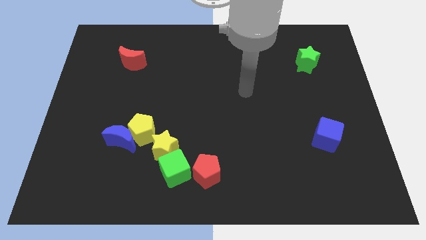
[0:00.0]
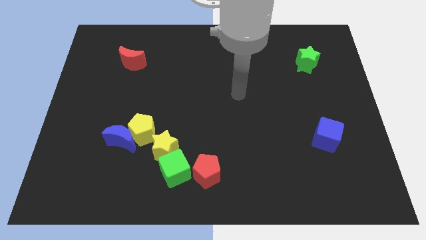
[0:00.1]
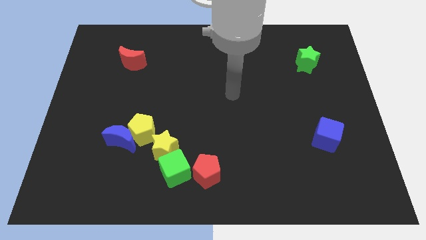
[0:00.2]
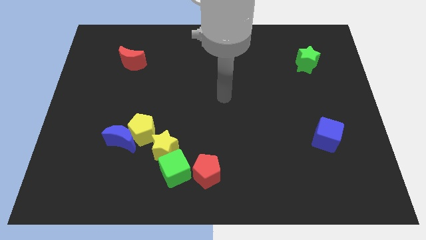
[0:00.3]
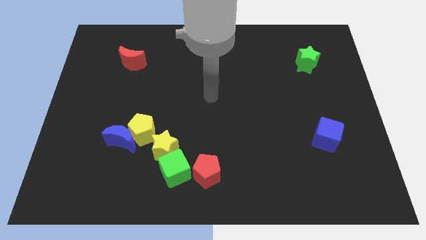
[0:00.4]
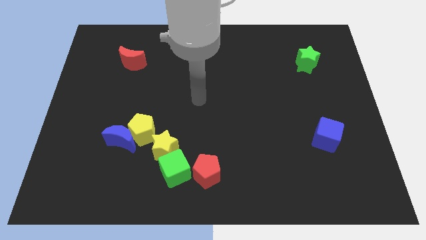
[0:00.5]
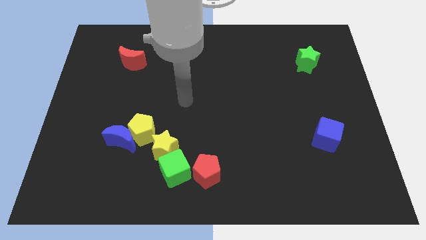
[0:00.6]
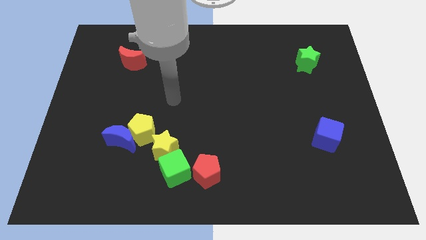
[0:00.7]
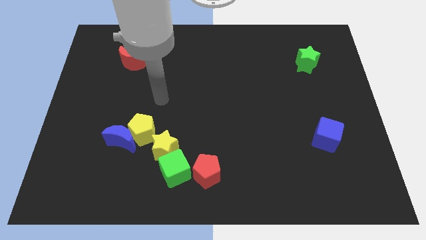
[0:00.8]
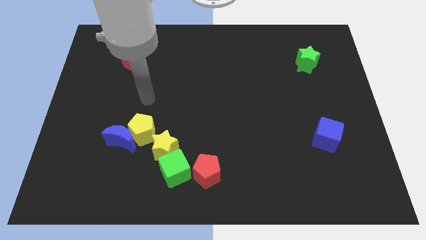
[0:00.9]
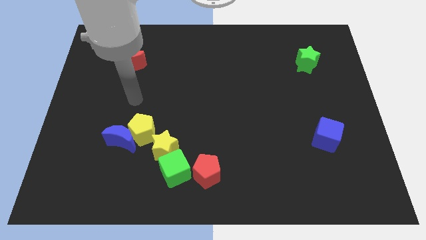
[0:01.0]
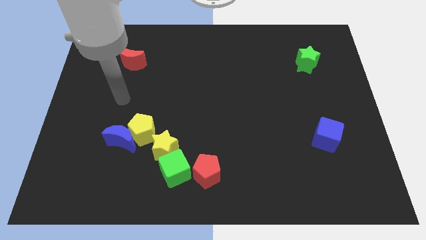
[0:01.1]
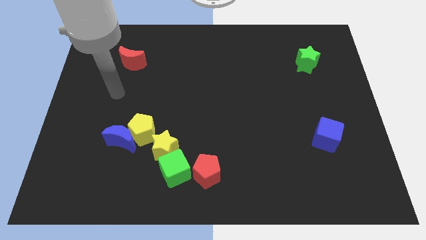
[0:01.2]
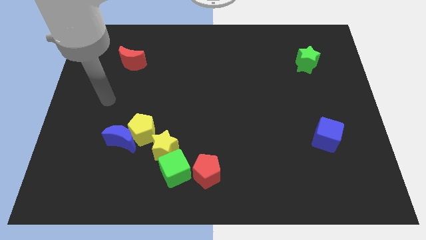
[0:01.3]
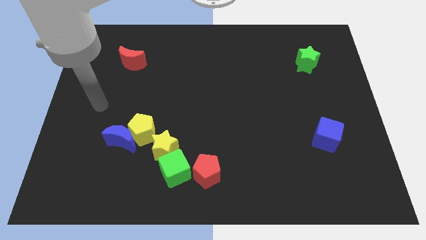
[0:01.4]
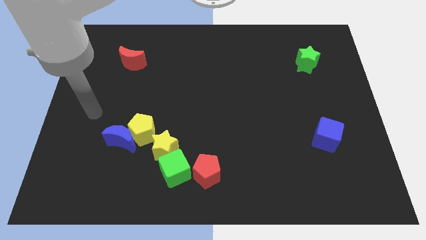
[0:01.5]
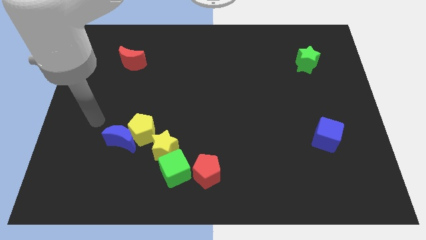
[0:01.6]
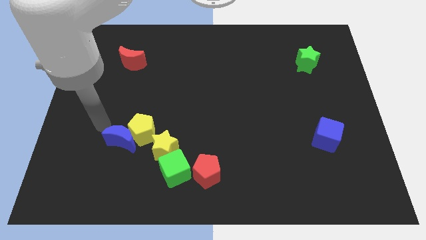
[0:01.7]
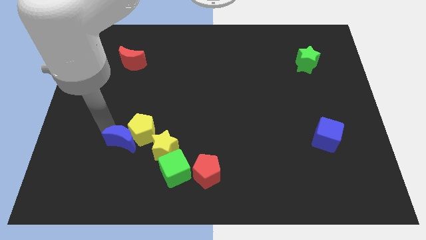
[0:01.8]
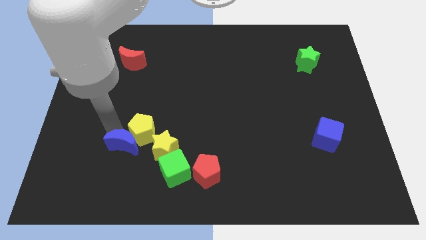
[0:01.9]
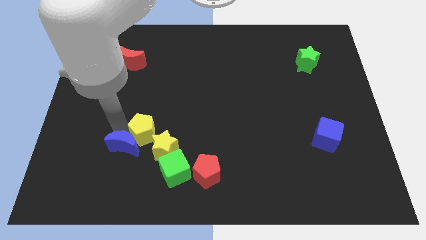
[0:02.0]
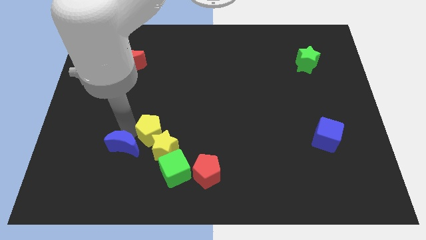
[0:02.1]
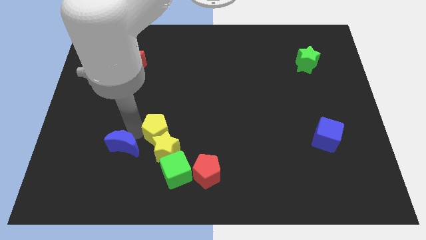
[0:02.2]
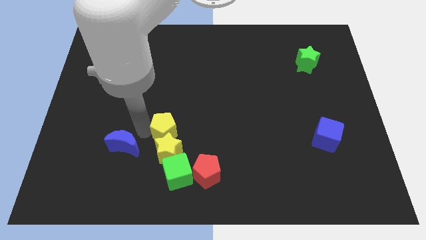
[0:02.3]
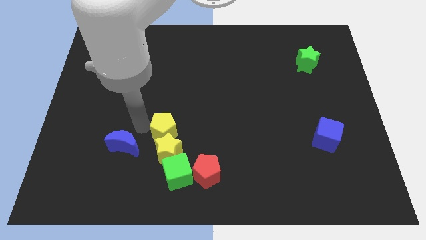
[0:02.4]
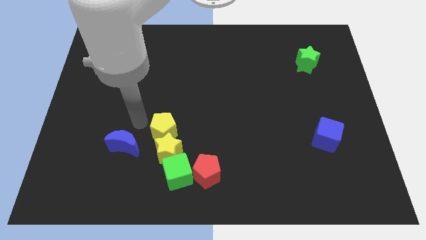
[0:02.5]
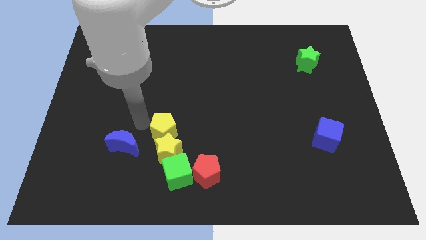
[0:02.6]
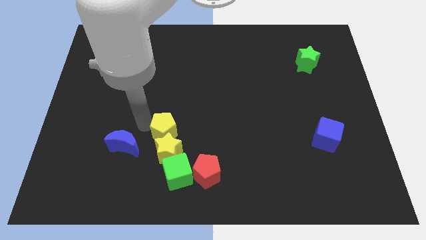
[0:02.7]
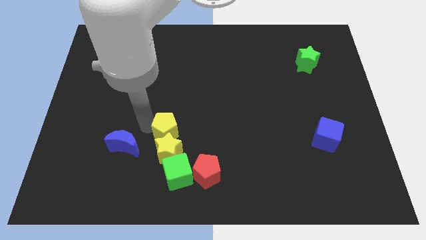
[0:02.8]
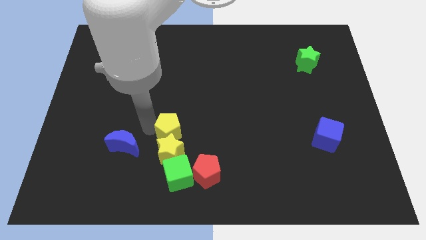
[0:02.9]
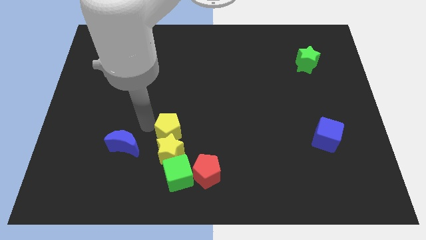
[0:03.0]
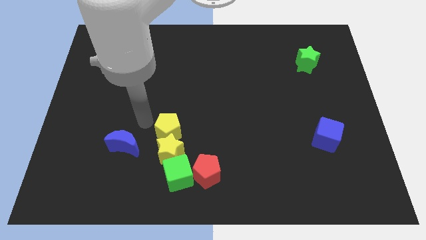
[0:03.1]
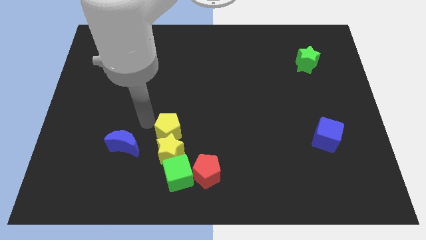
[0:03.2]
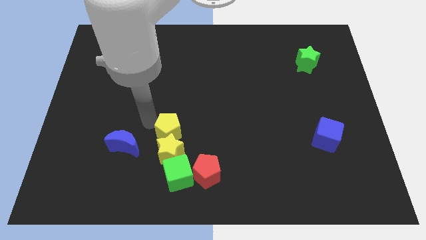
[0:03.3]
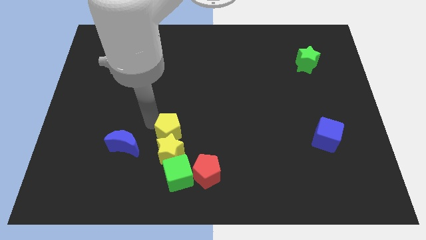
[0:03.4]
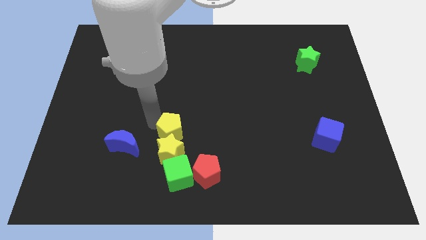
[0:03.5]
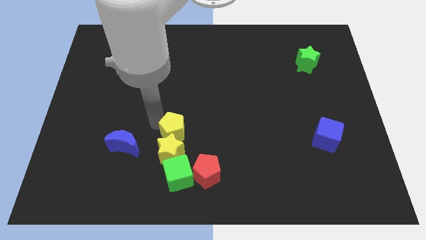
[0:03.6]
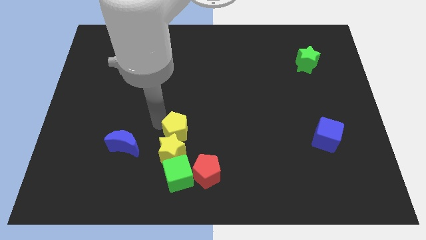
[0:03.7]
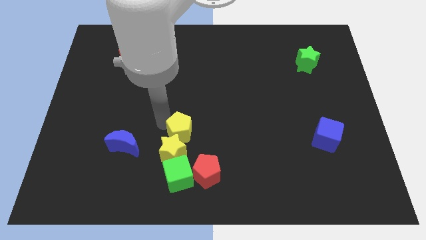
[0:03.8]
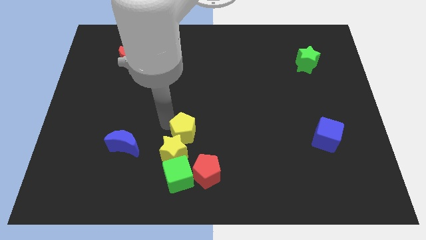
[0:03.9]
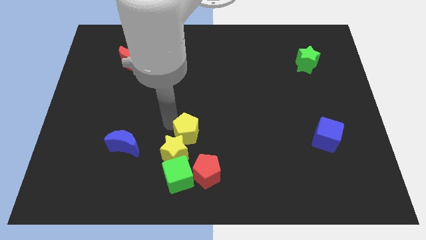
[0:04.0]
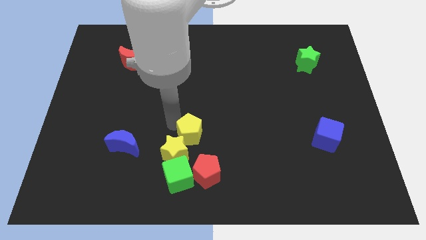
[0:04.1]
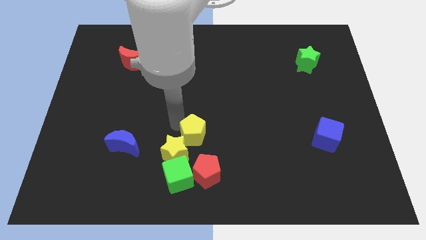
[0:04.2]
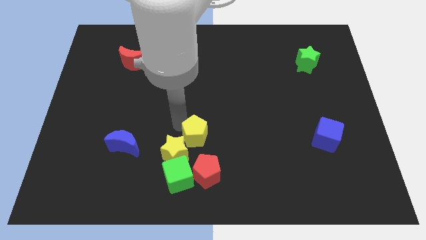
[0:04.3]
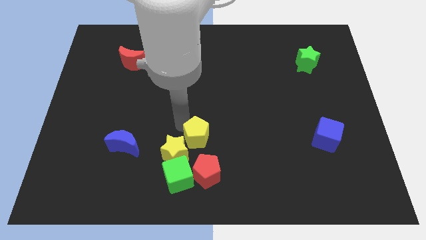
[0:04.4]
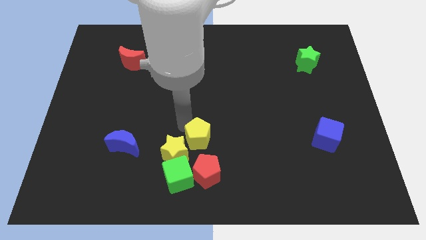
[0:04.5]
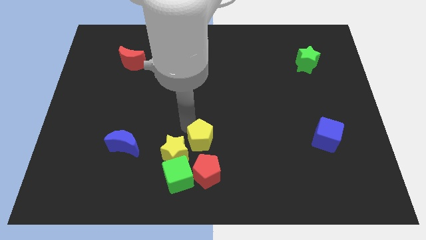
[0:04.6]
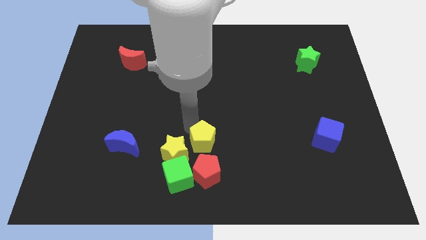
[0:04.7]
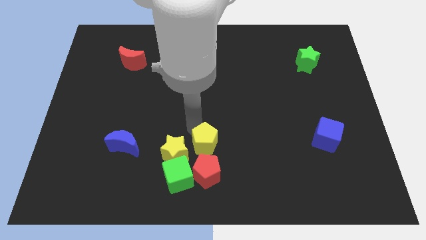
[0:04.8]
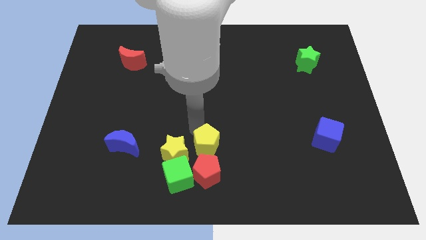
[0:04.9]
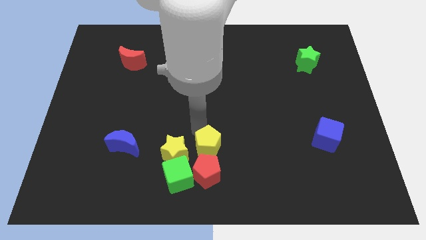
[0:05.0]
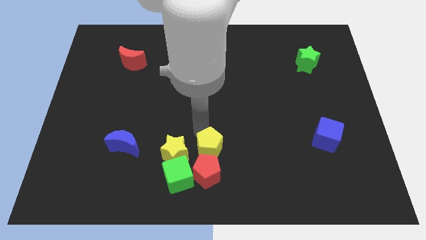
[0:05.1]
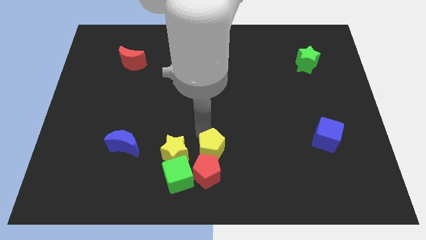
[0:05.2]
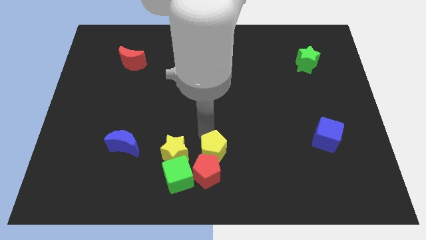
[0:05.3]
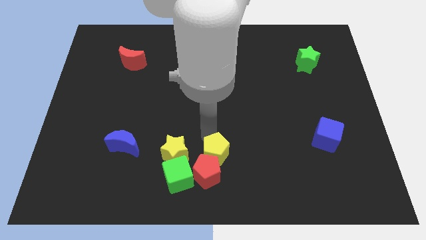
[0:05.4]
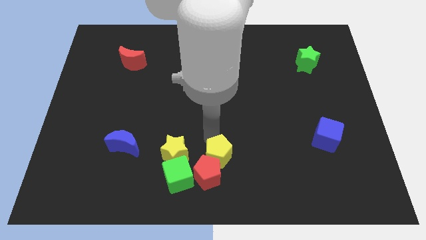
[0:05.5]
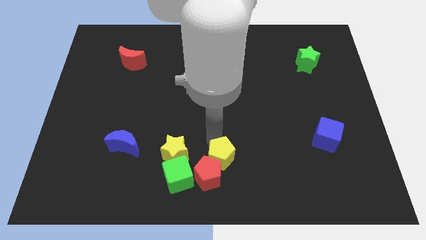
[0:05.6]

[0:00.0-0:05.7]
push the yellow pentagon right of the green cube

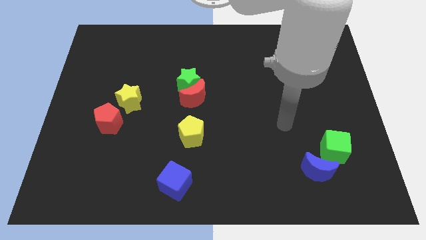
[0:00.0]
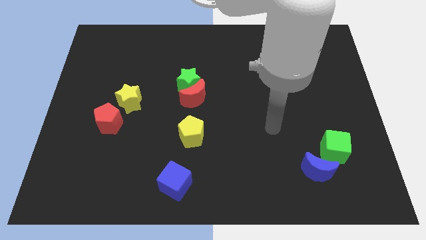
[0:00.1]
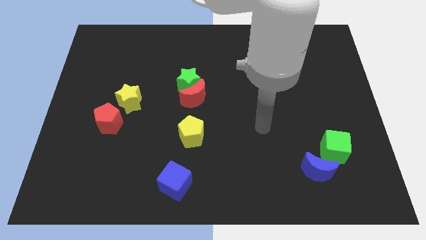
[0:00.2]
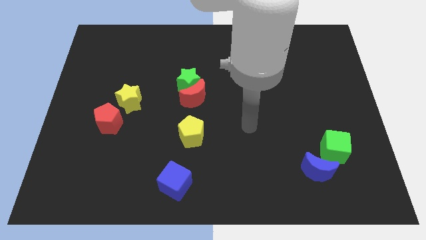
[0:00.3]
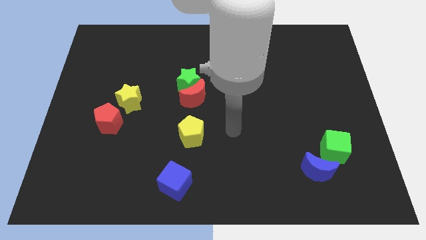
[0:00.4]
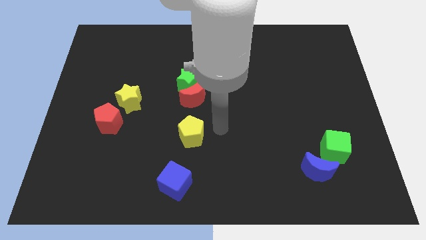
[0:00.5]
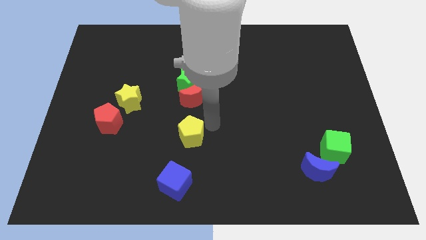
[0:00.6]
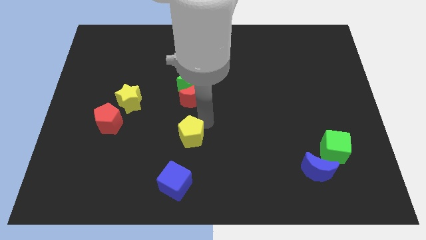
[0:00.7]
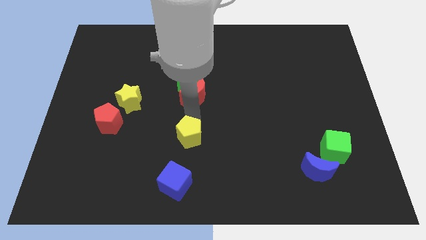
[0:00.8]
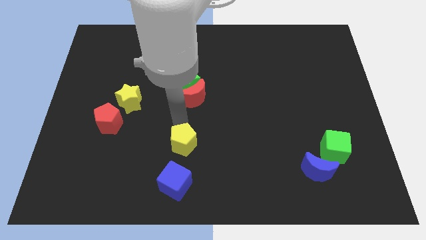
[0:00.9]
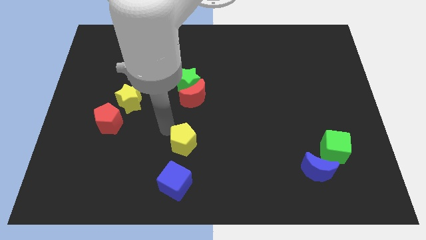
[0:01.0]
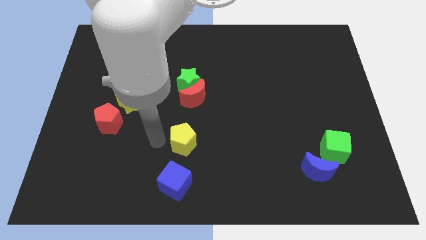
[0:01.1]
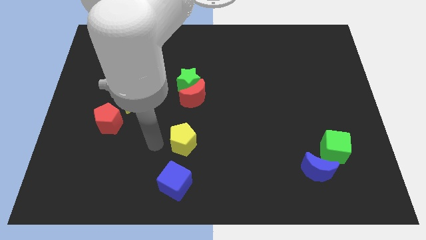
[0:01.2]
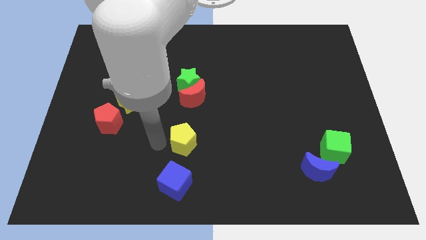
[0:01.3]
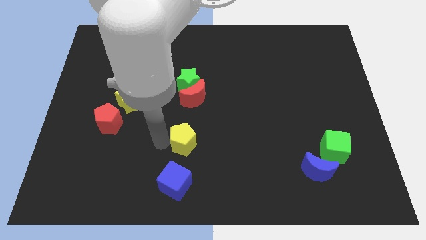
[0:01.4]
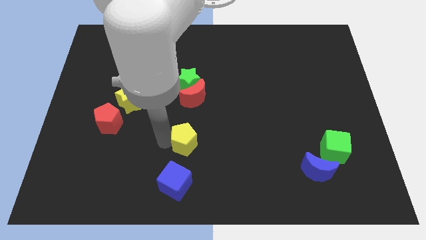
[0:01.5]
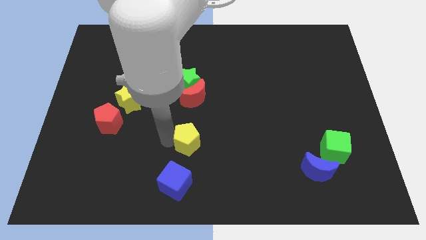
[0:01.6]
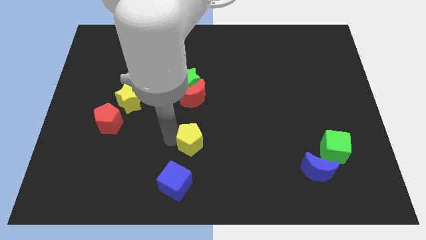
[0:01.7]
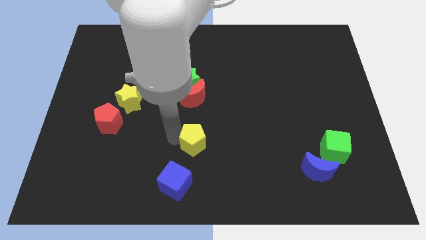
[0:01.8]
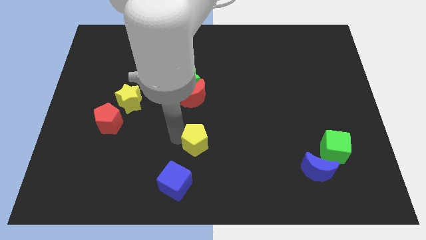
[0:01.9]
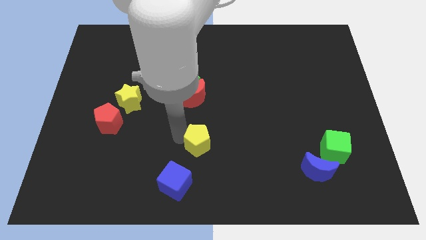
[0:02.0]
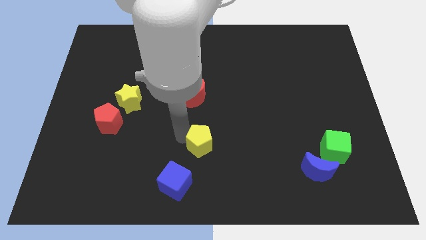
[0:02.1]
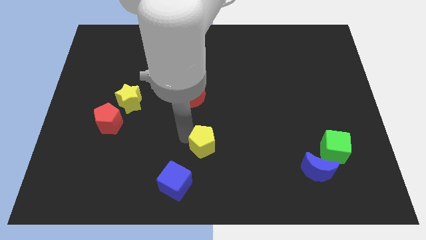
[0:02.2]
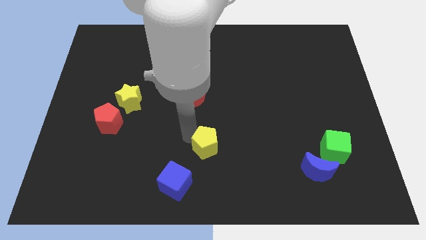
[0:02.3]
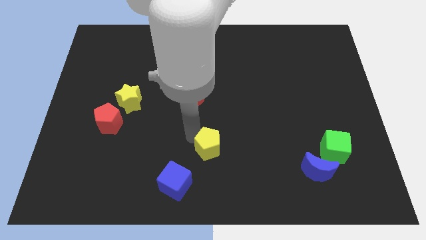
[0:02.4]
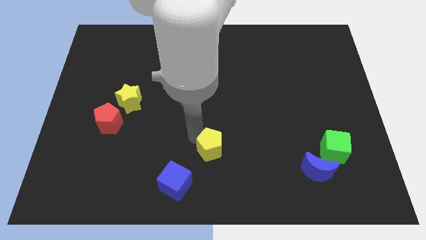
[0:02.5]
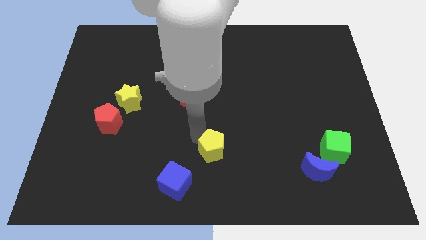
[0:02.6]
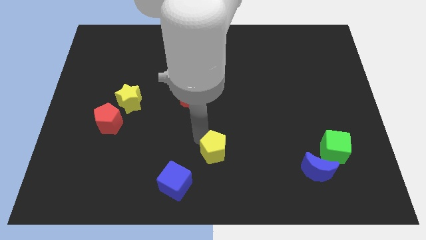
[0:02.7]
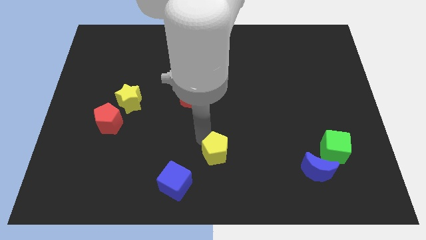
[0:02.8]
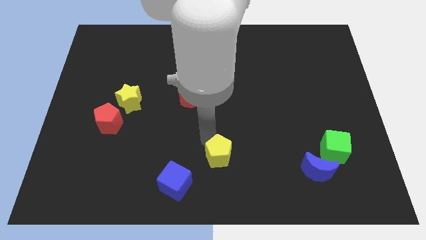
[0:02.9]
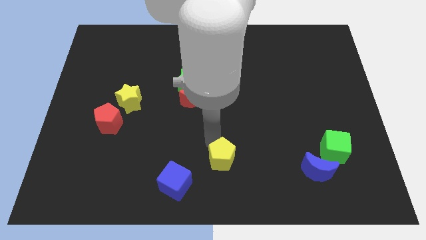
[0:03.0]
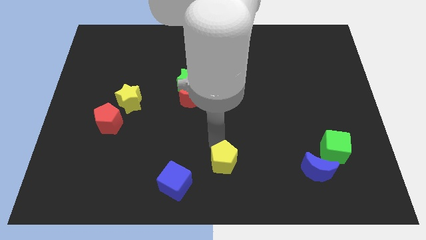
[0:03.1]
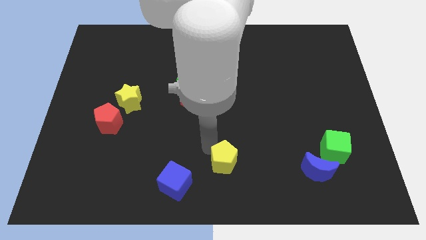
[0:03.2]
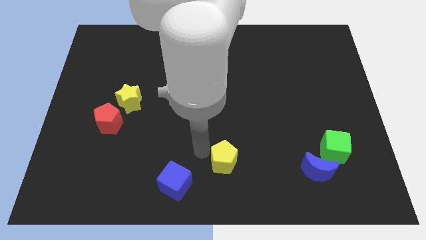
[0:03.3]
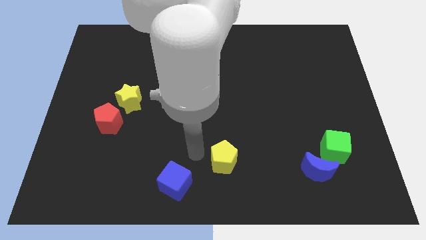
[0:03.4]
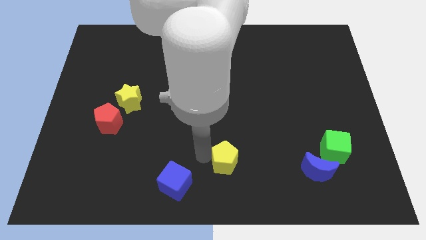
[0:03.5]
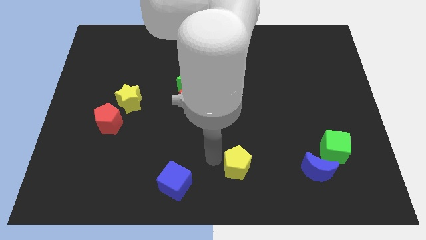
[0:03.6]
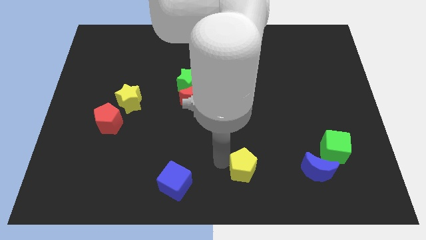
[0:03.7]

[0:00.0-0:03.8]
put the yellow pentagon just left of the blue moon
